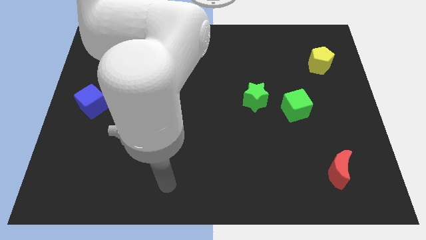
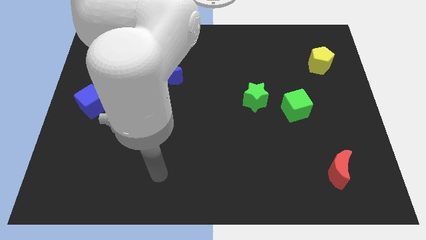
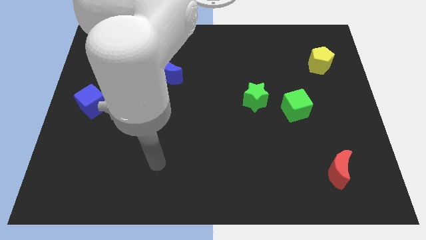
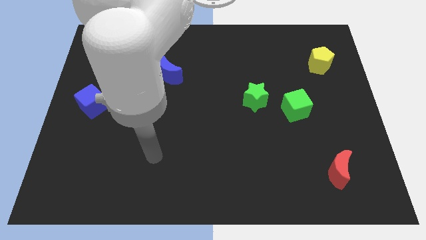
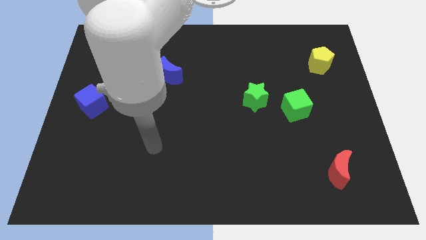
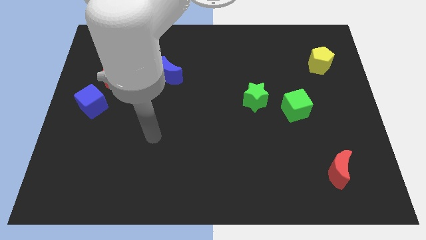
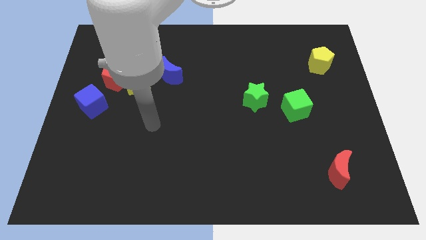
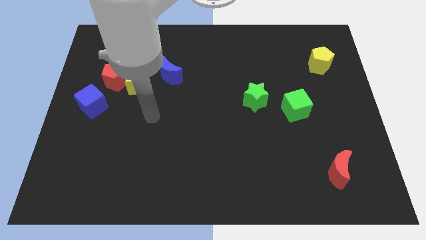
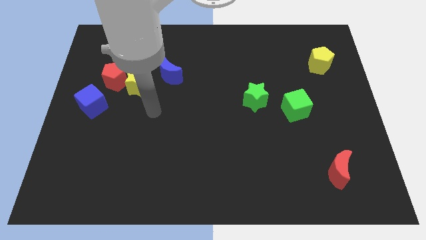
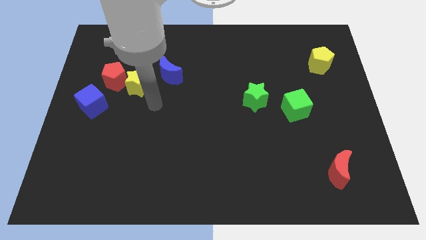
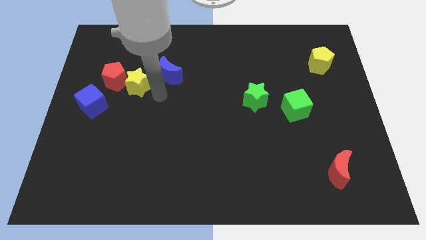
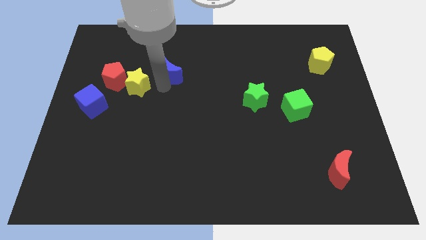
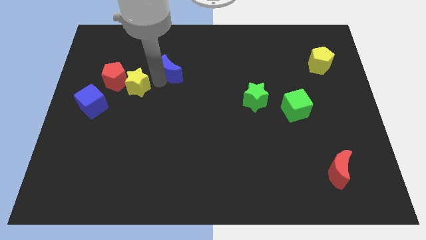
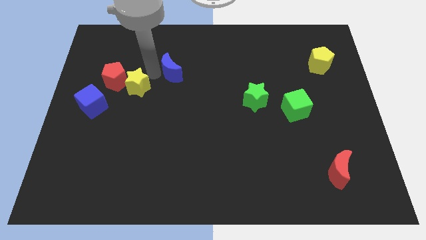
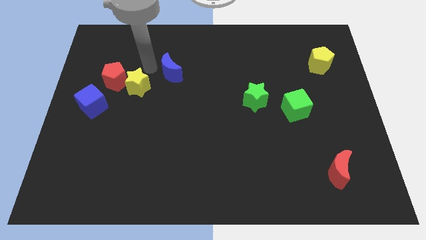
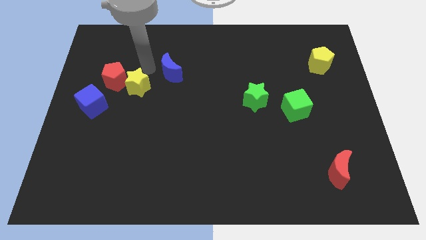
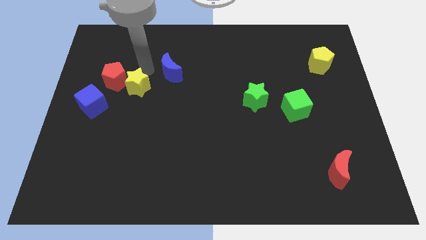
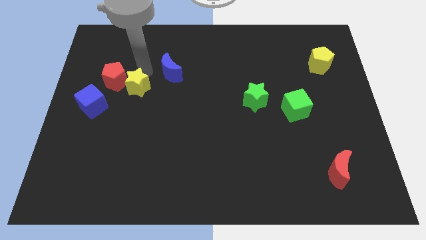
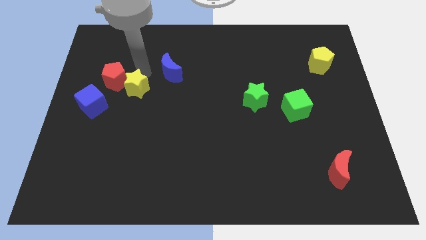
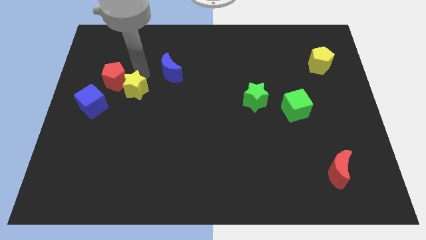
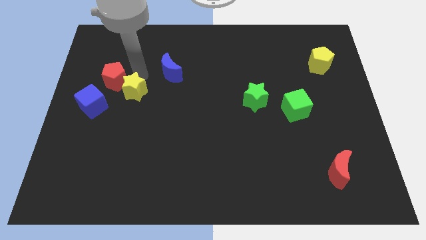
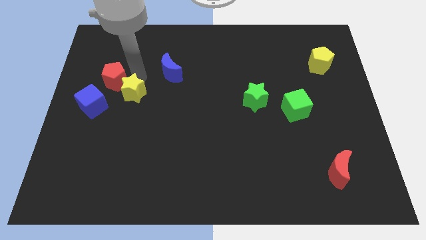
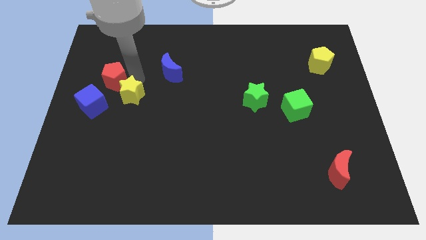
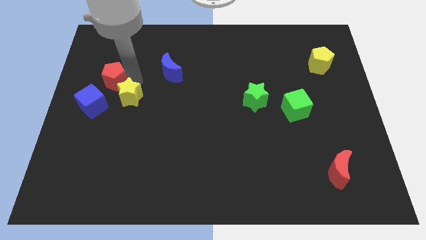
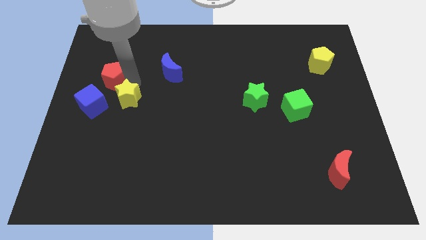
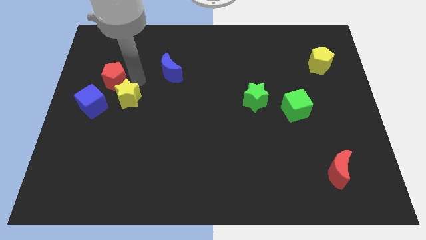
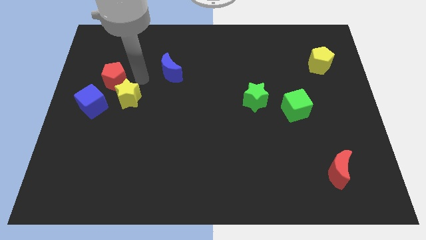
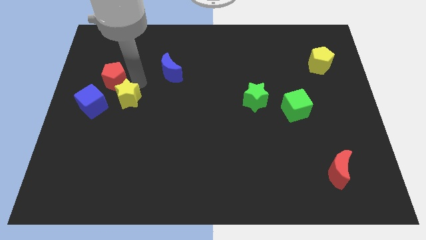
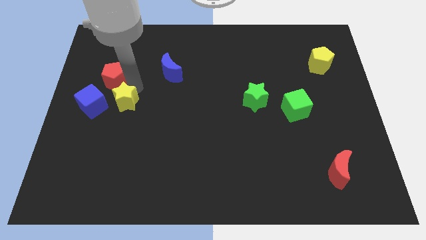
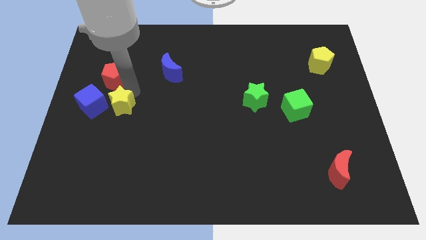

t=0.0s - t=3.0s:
separate the yellow star from the red pentagon and blue moon

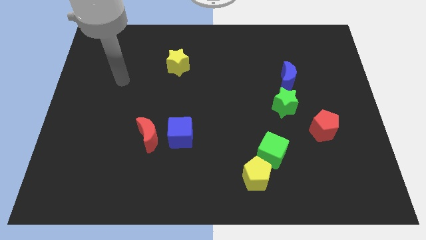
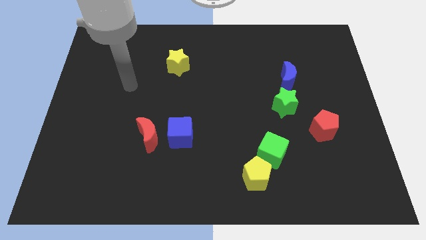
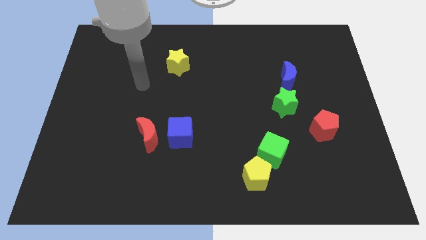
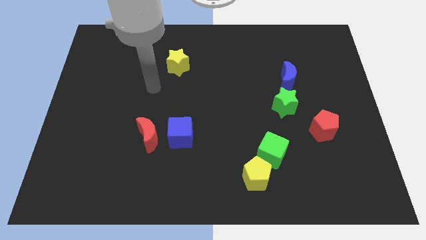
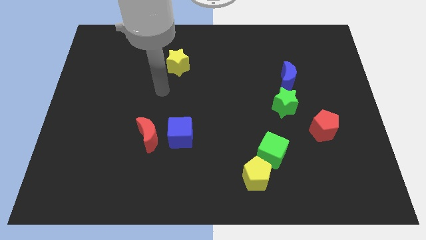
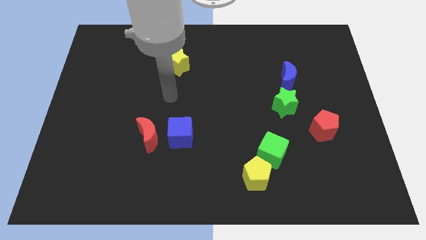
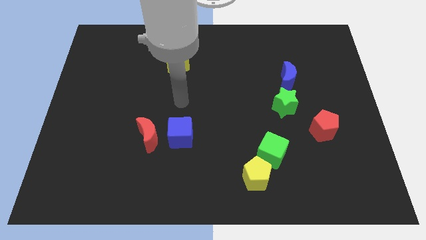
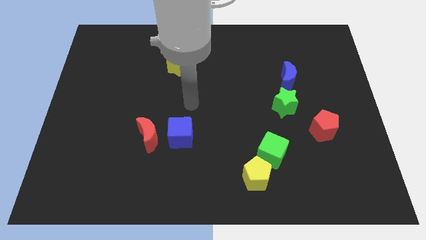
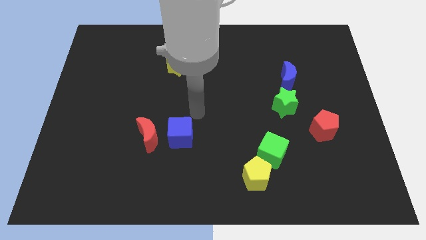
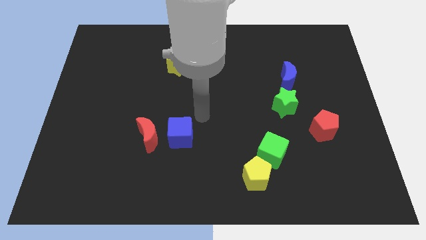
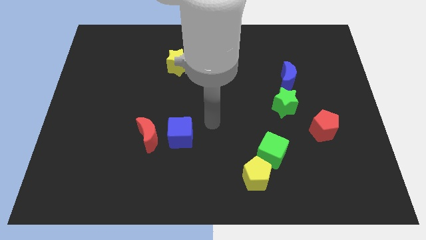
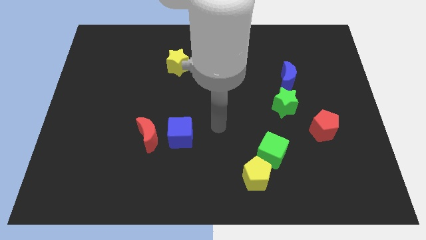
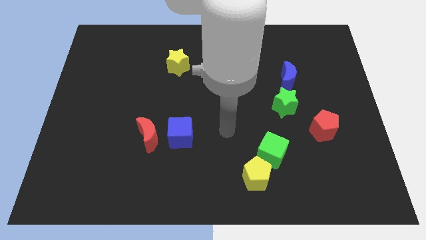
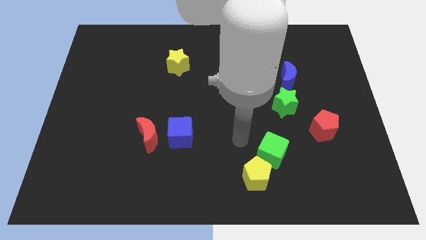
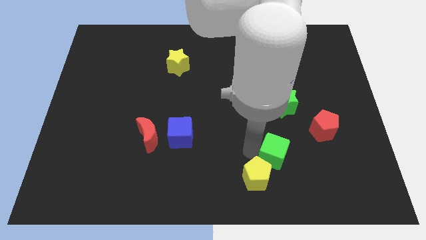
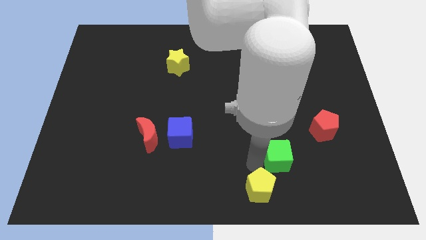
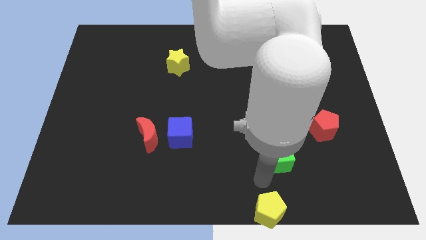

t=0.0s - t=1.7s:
move the green cube away from the yellow pentagon

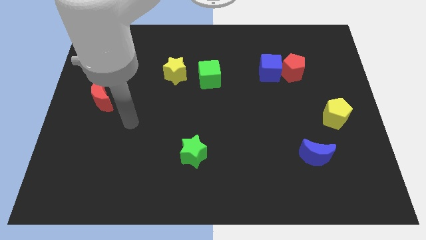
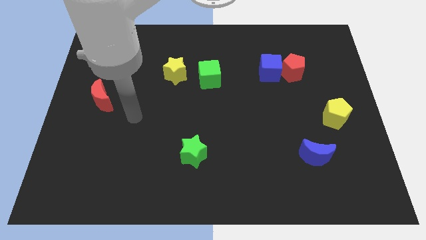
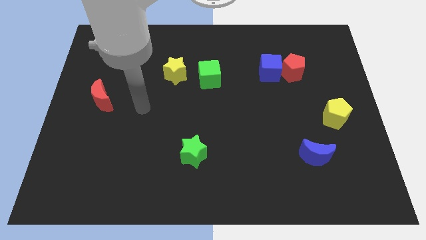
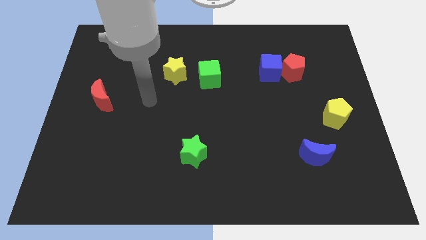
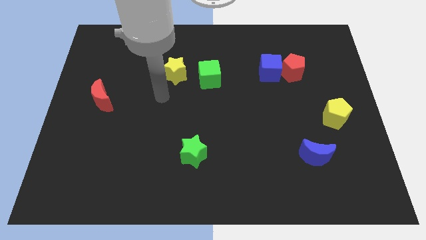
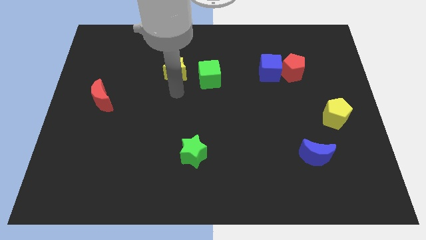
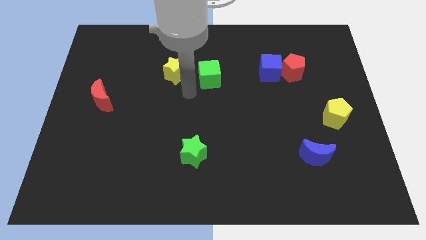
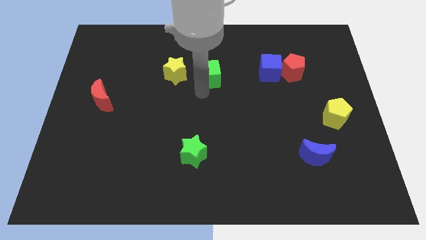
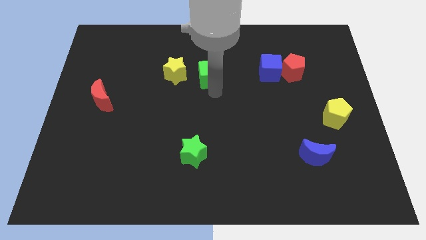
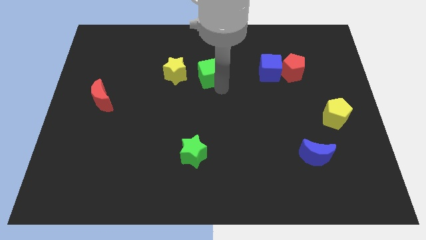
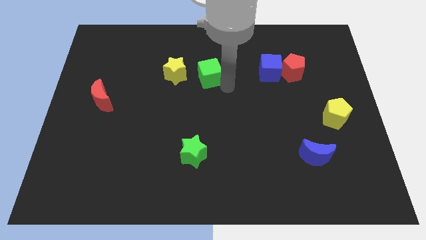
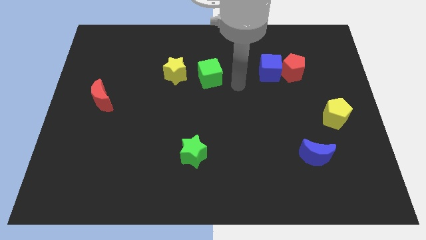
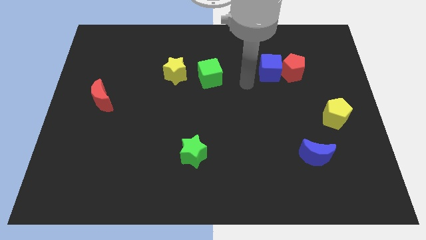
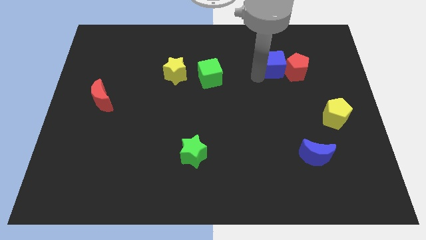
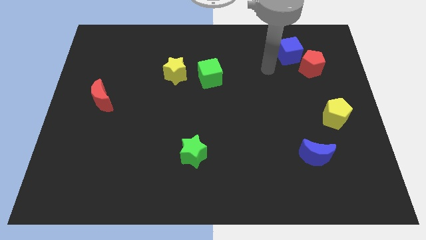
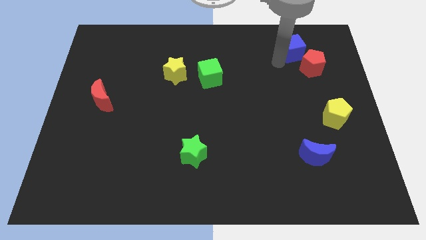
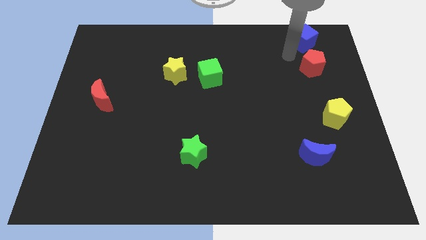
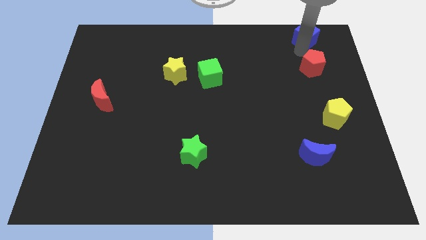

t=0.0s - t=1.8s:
pull the red pentagon apart from the blue cube

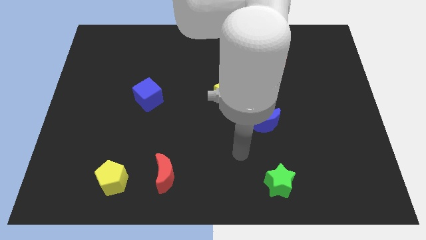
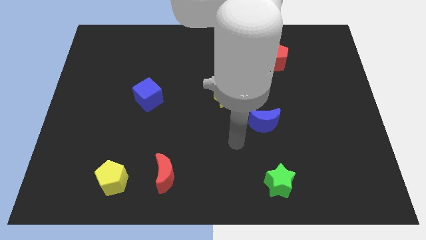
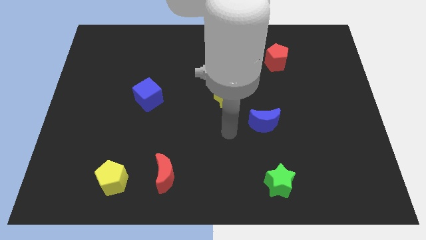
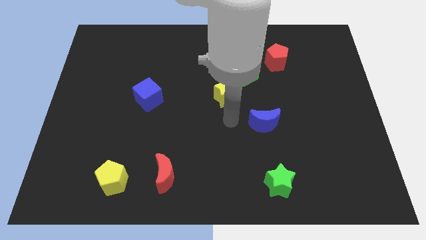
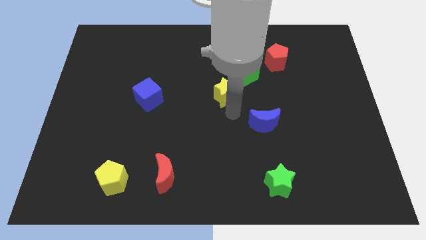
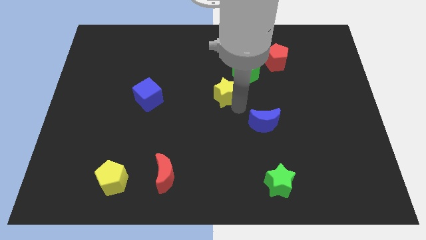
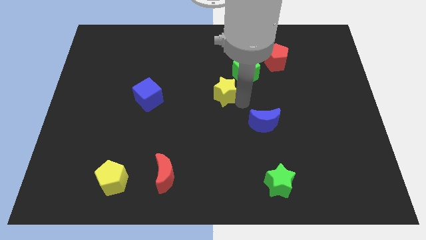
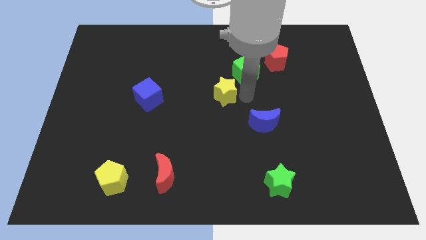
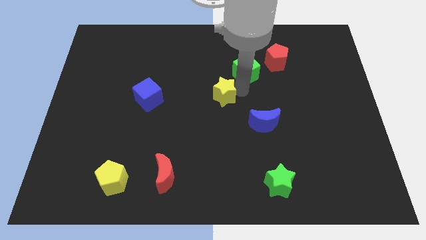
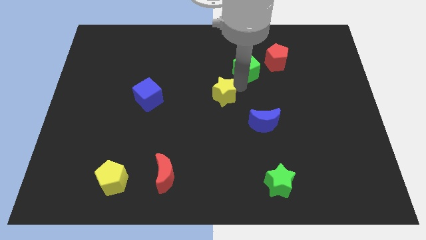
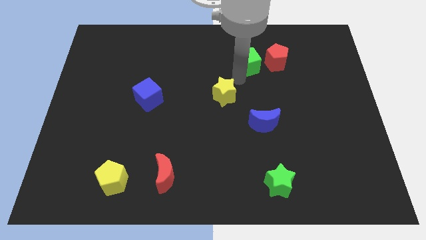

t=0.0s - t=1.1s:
pull the yellow star apart from the green cube

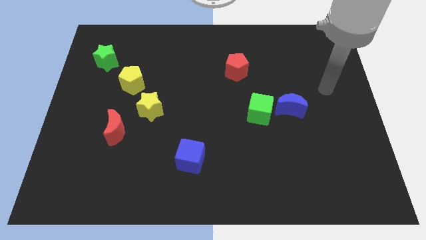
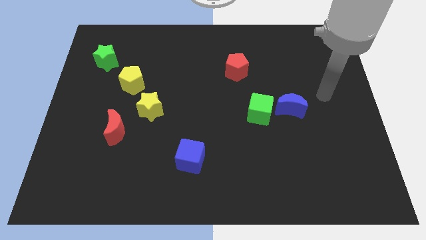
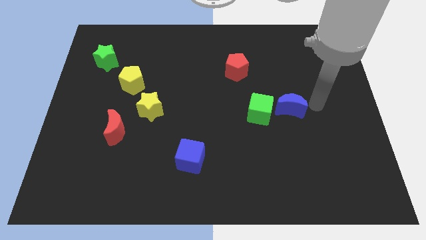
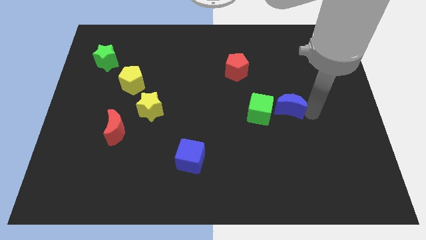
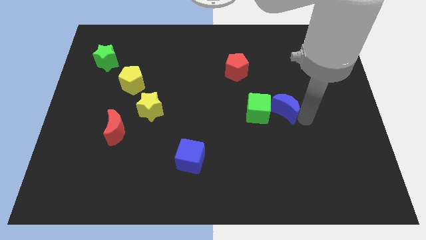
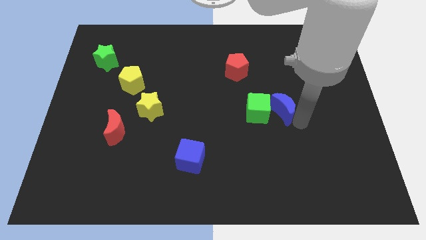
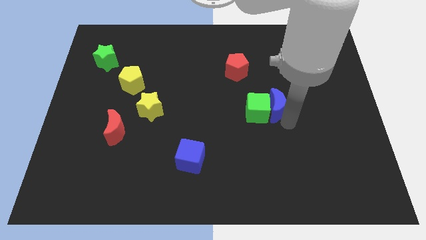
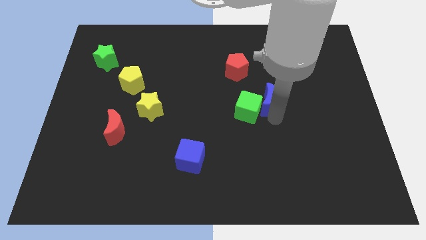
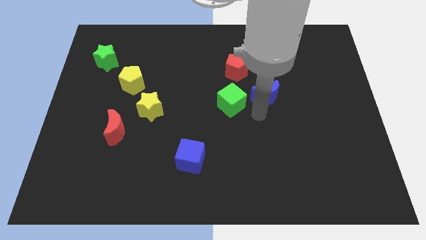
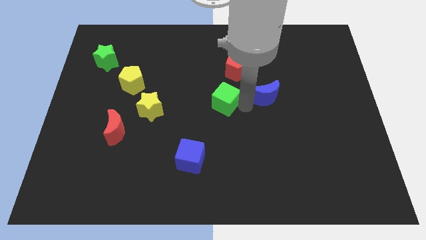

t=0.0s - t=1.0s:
separate the blue moon from the green cube

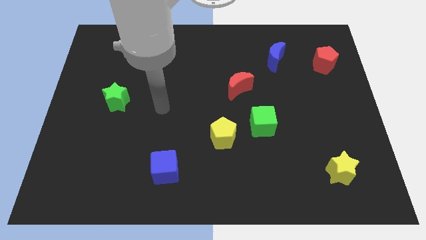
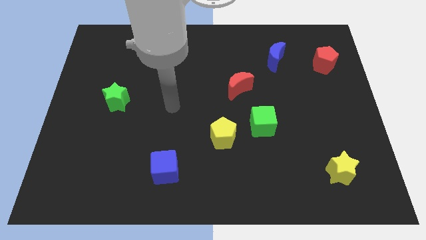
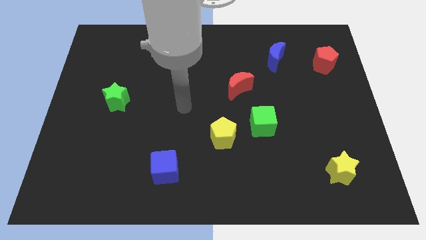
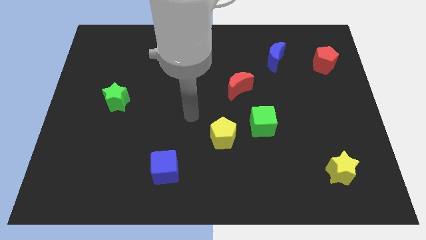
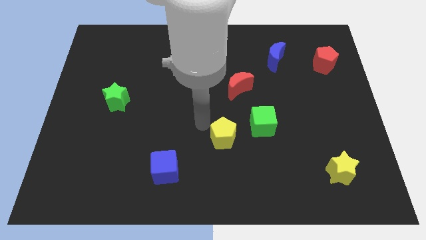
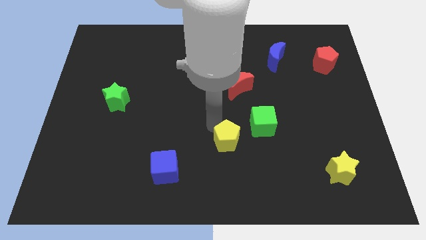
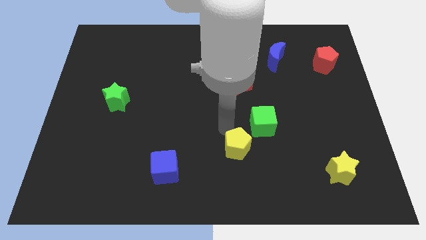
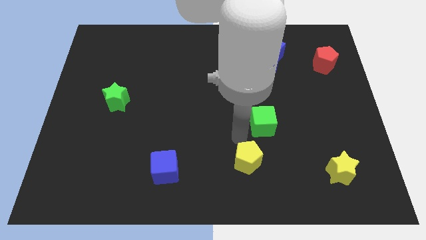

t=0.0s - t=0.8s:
separate the green cube from the yellow pentagon

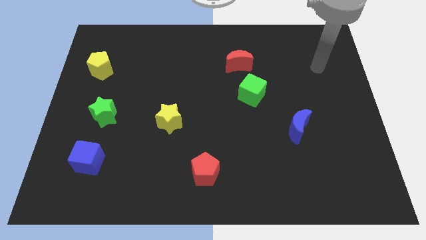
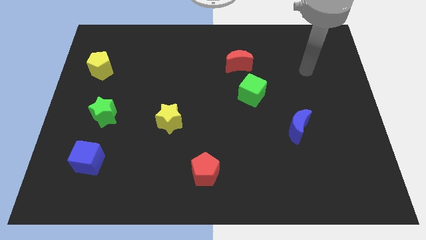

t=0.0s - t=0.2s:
move the red moon away from the green cube
